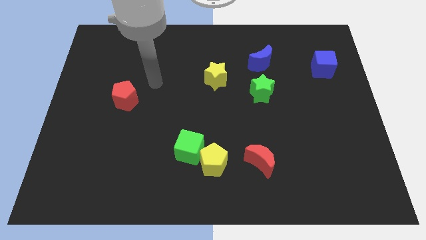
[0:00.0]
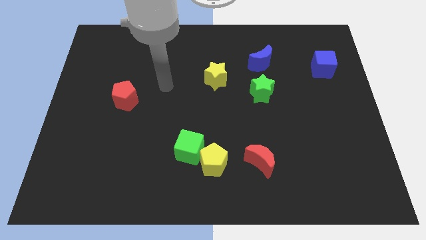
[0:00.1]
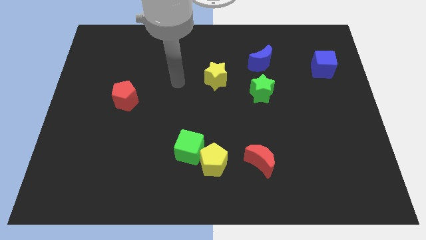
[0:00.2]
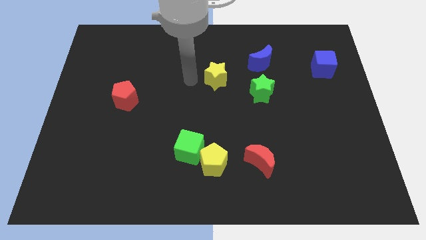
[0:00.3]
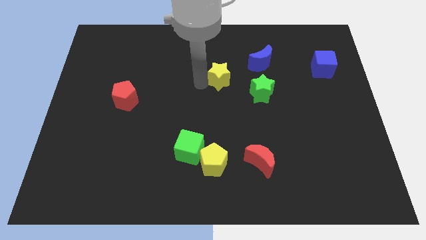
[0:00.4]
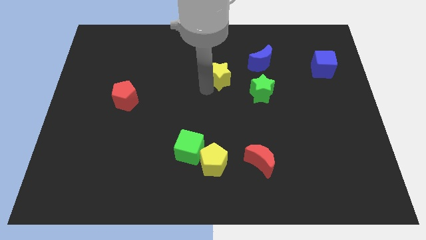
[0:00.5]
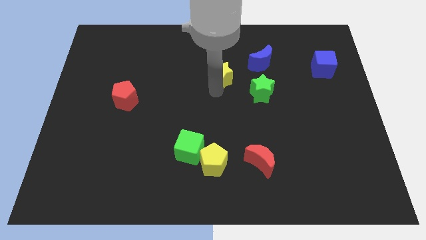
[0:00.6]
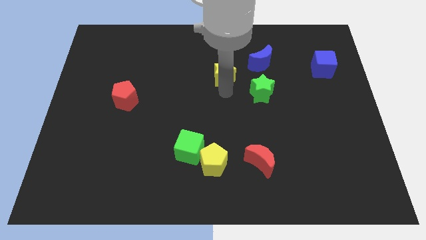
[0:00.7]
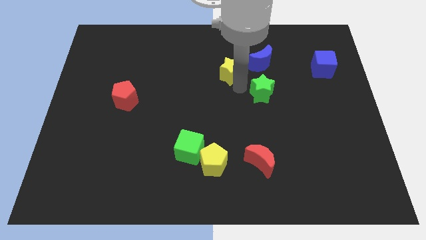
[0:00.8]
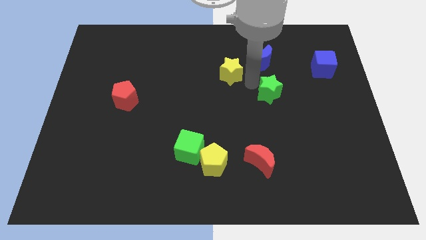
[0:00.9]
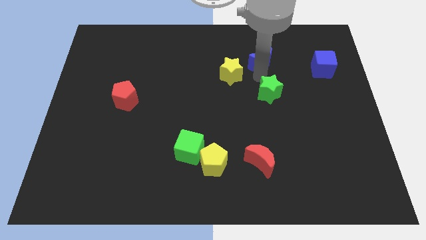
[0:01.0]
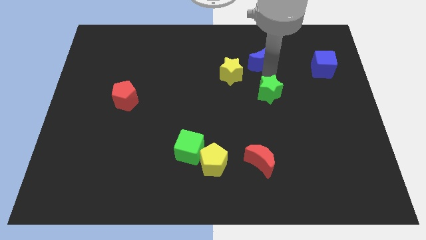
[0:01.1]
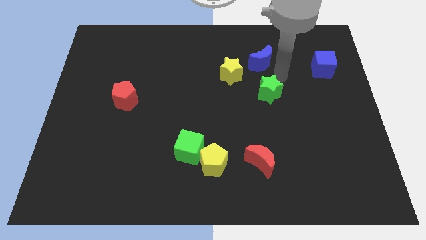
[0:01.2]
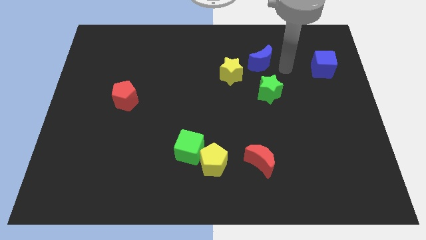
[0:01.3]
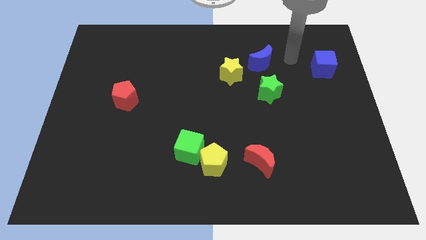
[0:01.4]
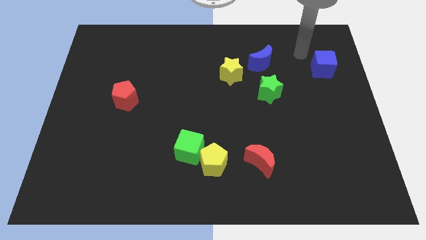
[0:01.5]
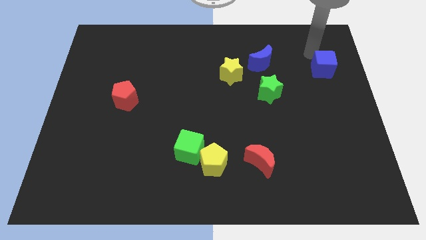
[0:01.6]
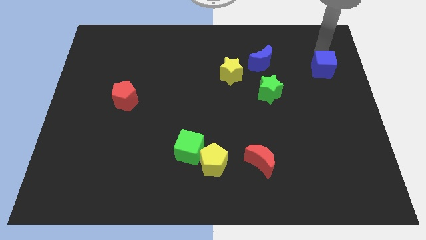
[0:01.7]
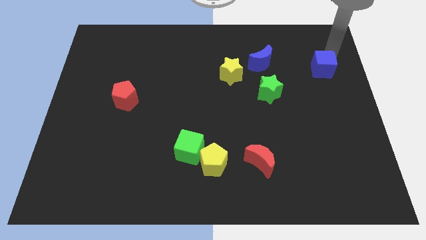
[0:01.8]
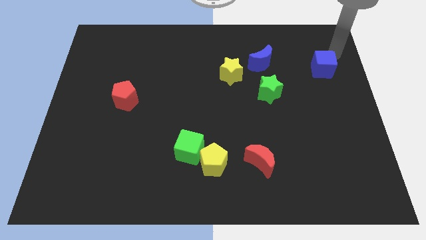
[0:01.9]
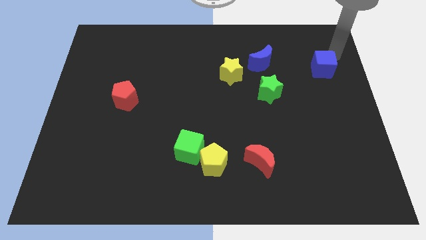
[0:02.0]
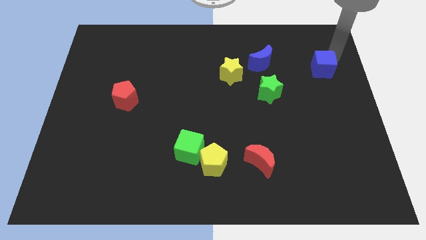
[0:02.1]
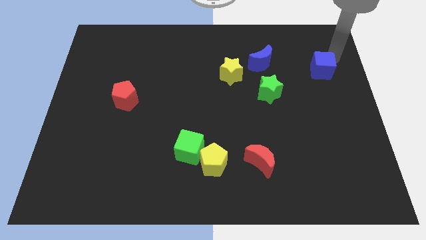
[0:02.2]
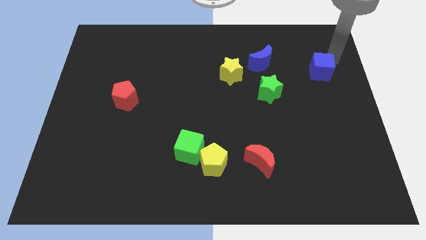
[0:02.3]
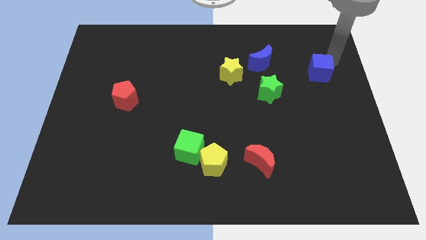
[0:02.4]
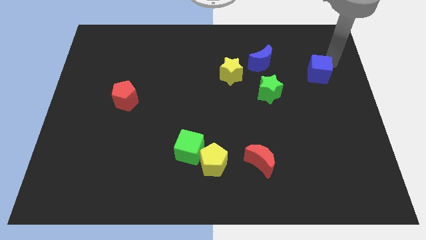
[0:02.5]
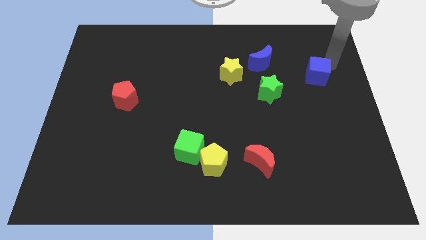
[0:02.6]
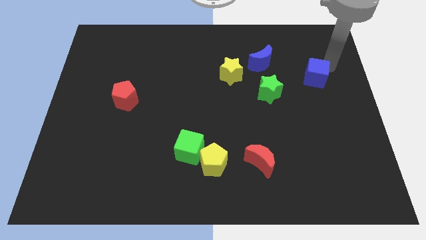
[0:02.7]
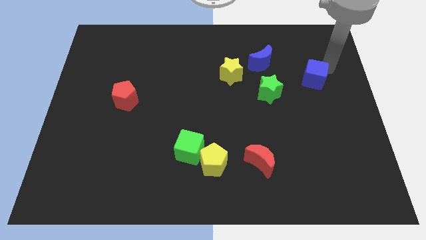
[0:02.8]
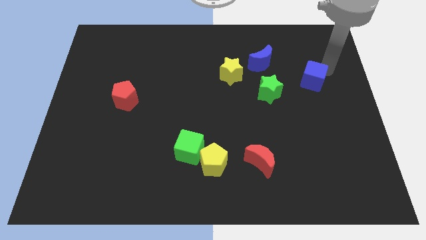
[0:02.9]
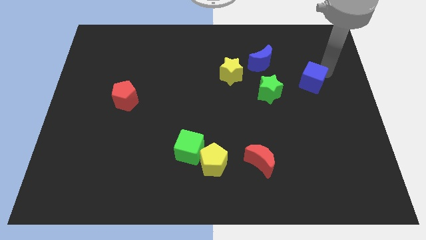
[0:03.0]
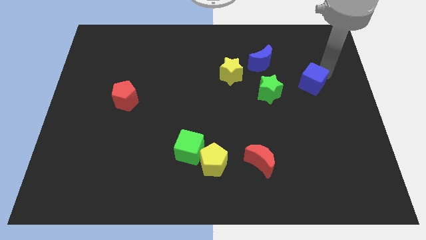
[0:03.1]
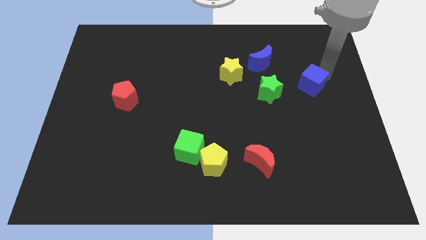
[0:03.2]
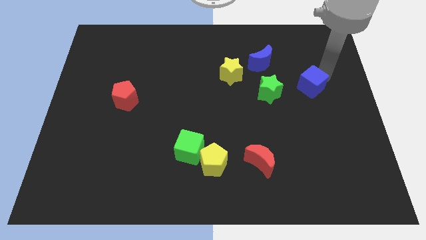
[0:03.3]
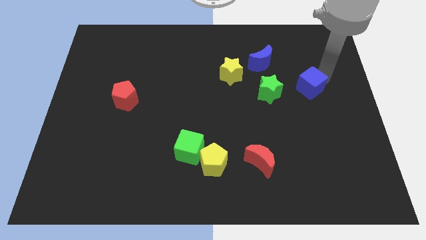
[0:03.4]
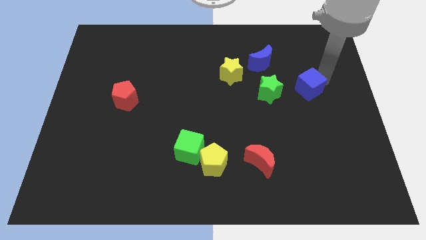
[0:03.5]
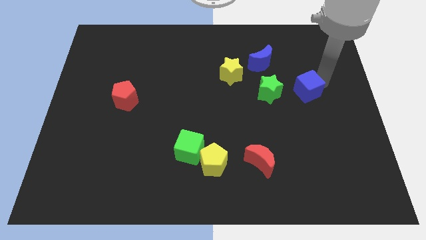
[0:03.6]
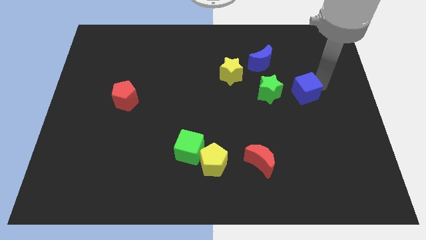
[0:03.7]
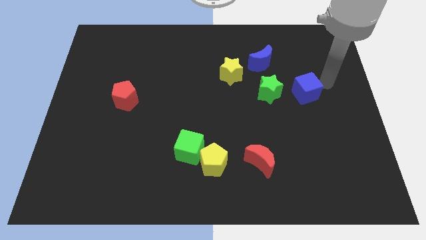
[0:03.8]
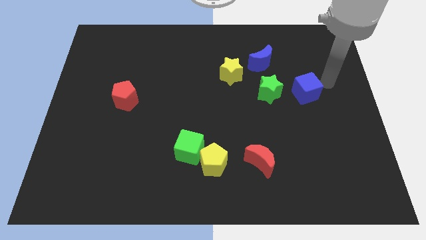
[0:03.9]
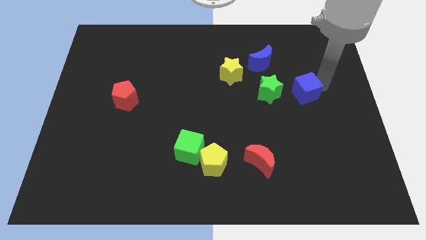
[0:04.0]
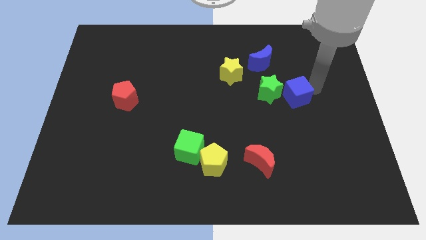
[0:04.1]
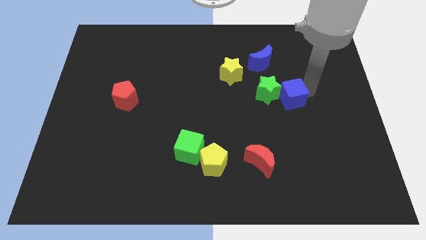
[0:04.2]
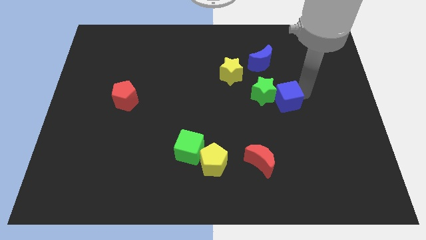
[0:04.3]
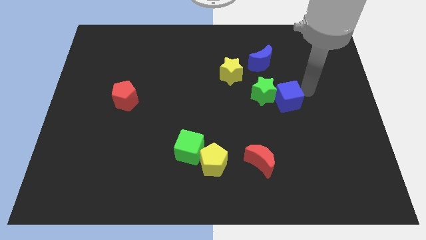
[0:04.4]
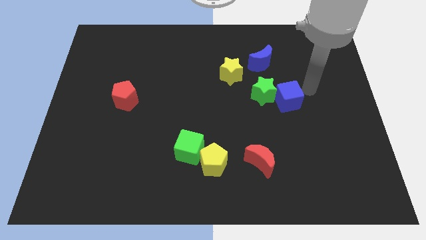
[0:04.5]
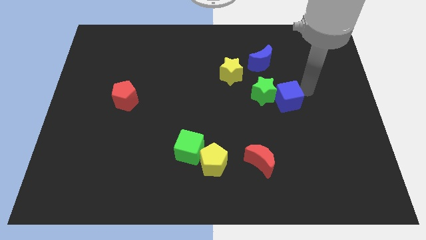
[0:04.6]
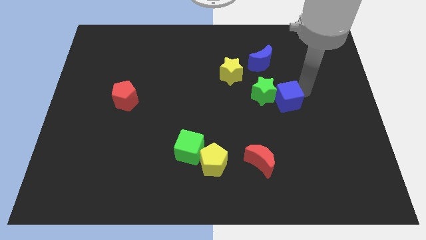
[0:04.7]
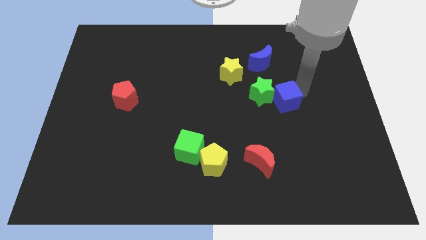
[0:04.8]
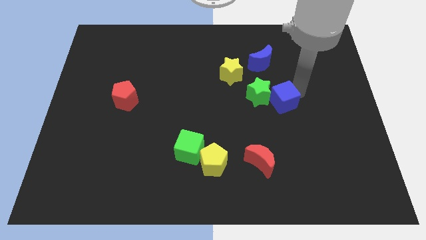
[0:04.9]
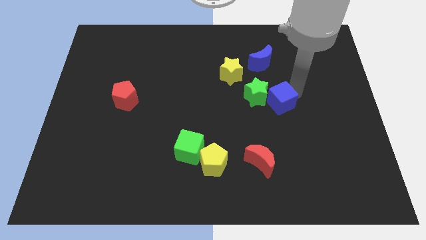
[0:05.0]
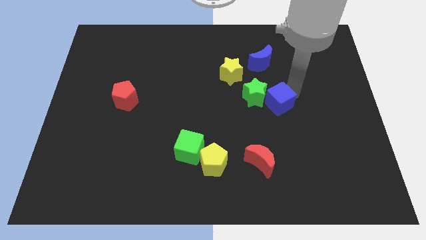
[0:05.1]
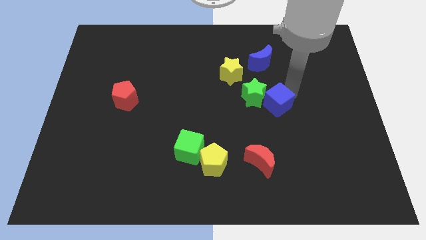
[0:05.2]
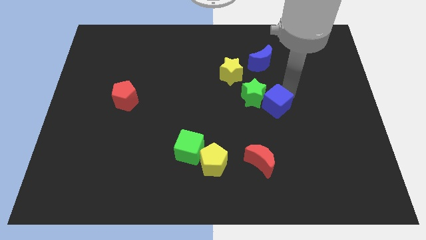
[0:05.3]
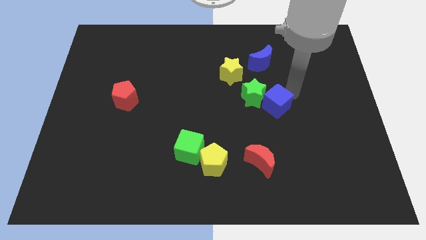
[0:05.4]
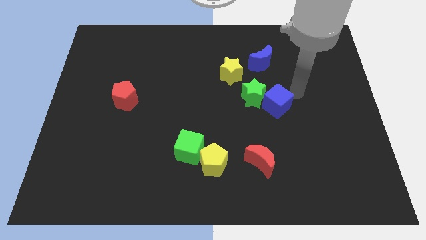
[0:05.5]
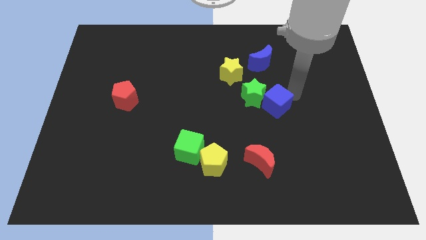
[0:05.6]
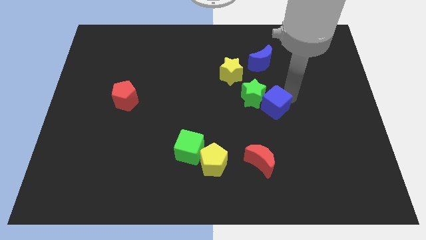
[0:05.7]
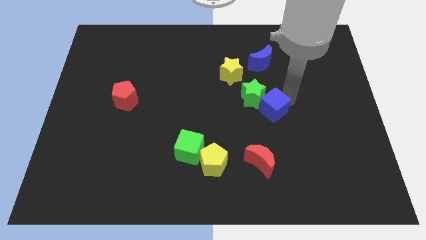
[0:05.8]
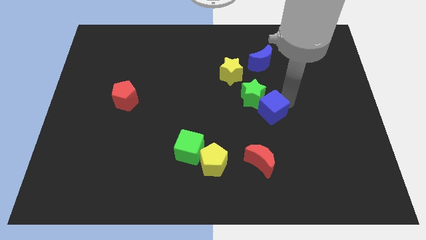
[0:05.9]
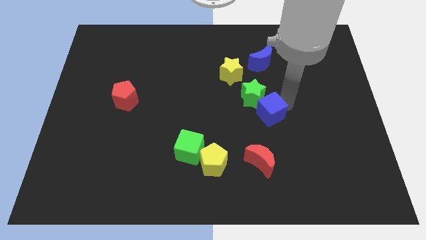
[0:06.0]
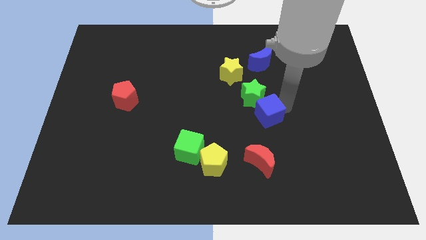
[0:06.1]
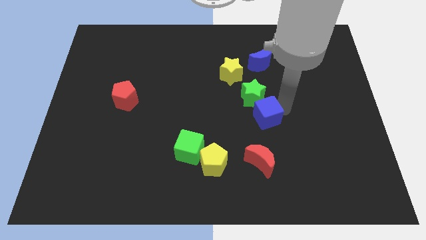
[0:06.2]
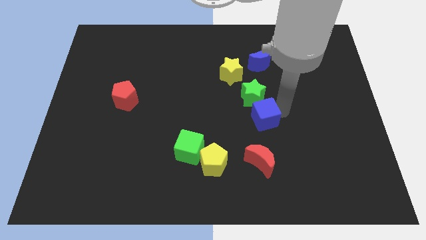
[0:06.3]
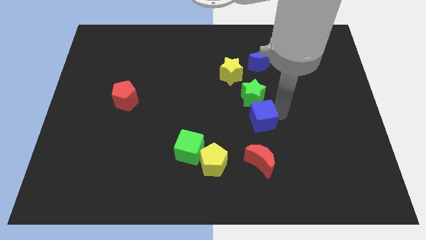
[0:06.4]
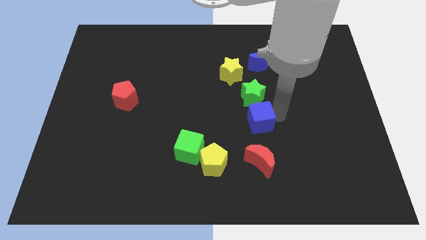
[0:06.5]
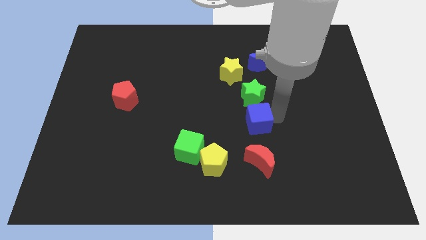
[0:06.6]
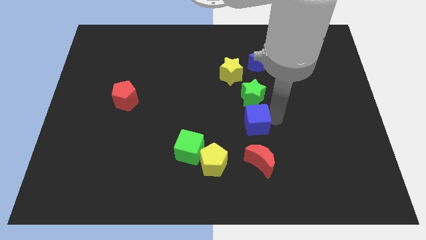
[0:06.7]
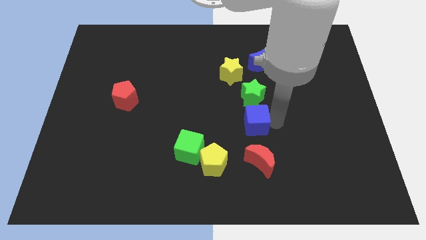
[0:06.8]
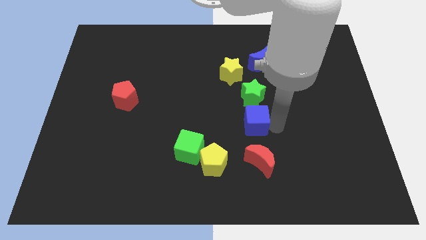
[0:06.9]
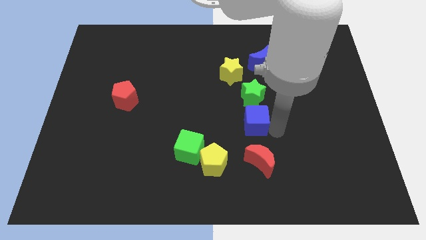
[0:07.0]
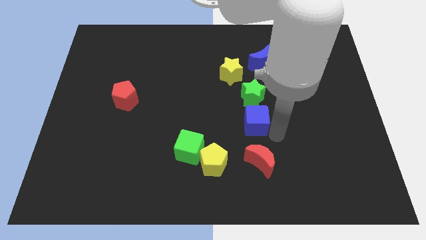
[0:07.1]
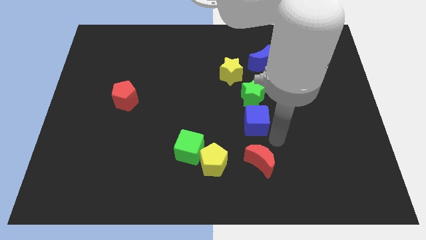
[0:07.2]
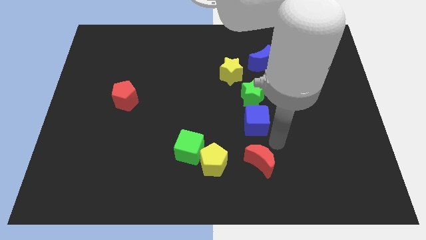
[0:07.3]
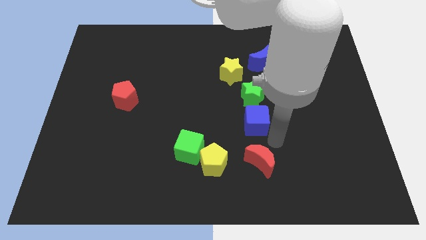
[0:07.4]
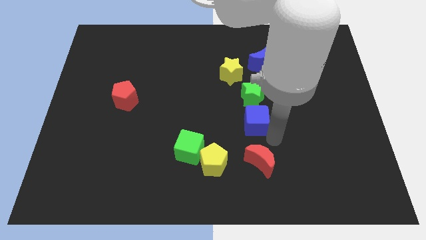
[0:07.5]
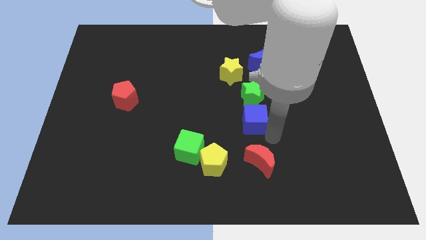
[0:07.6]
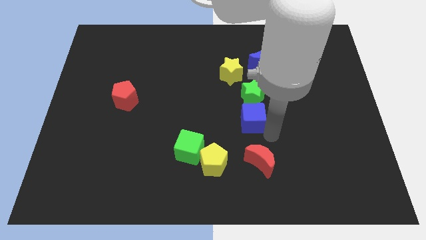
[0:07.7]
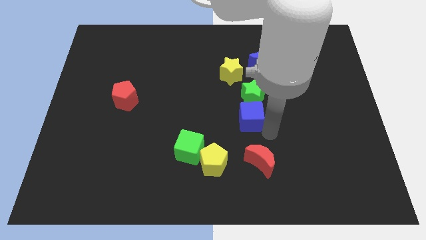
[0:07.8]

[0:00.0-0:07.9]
slide the blue cube below the yellow star
